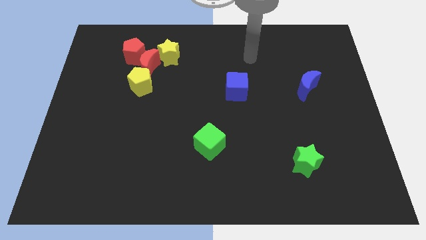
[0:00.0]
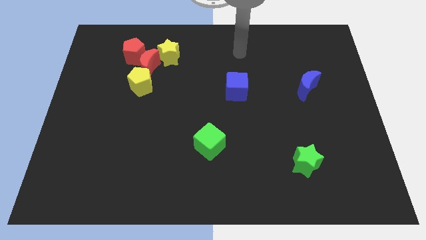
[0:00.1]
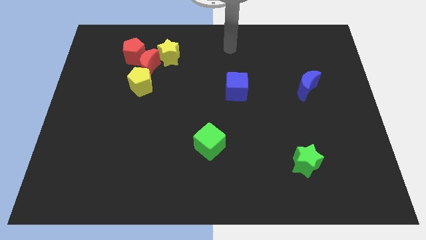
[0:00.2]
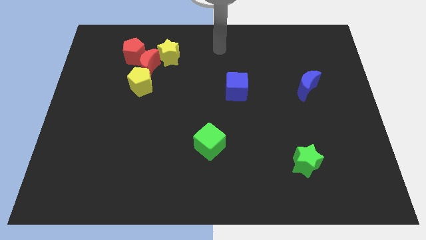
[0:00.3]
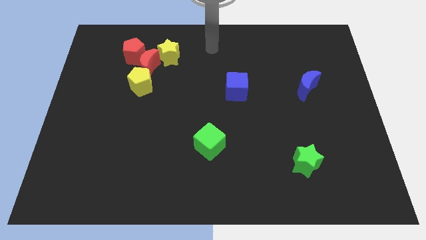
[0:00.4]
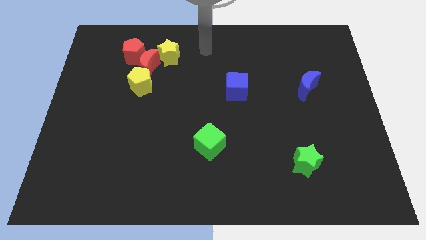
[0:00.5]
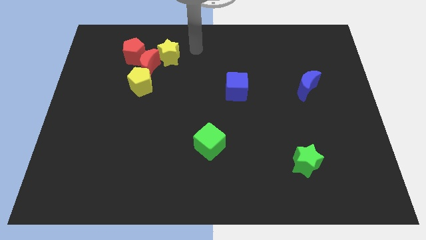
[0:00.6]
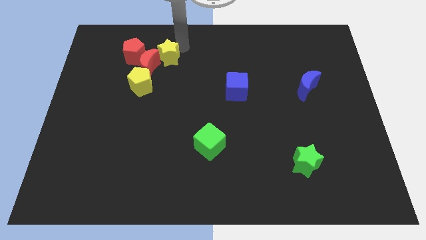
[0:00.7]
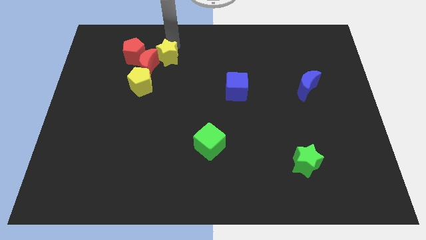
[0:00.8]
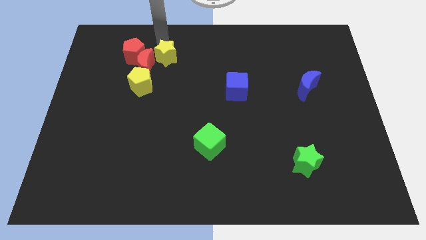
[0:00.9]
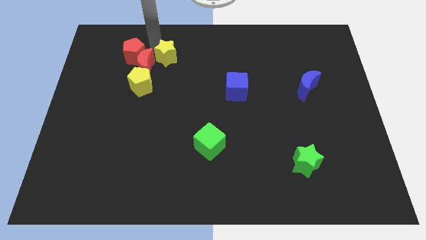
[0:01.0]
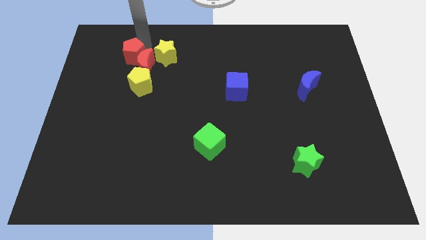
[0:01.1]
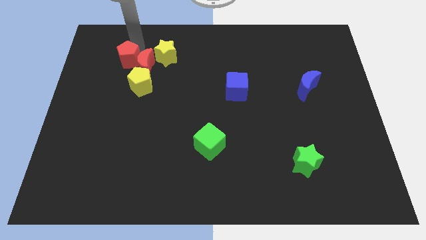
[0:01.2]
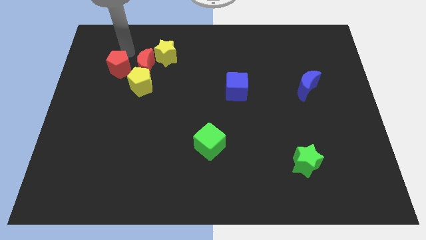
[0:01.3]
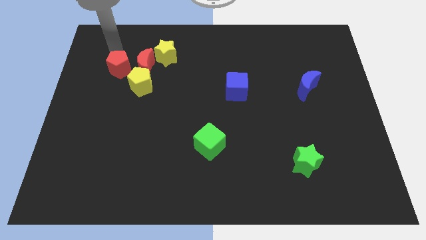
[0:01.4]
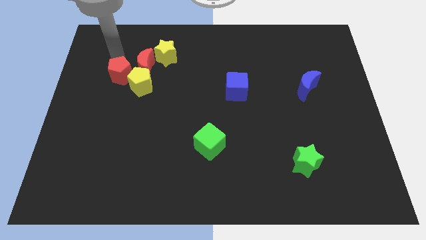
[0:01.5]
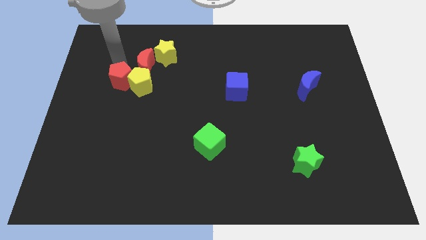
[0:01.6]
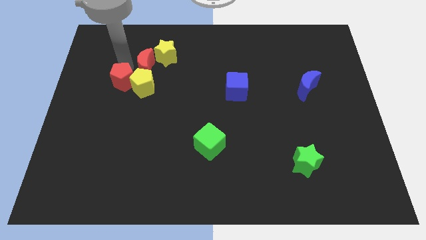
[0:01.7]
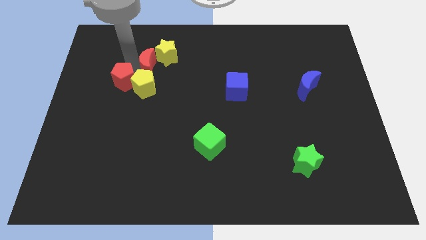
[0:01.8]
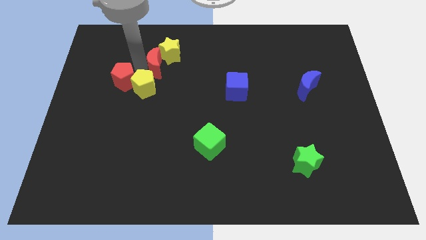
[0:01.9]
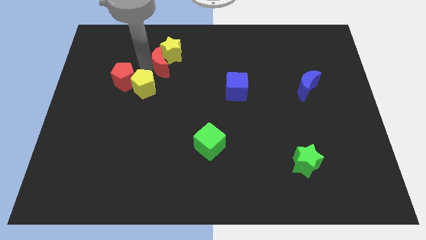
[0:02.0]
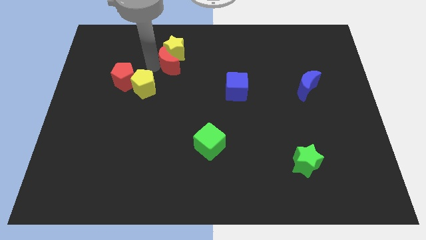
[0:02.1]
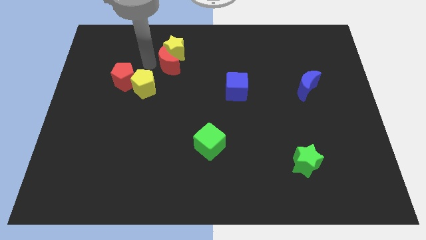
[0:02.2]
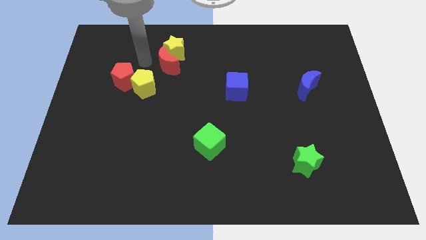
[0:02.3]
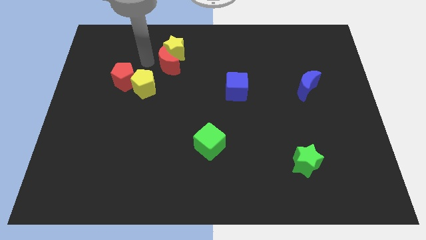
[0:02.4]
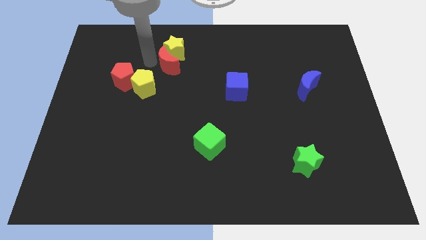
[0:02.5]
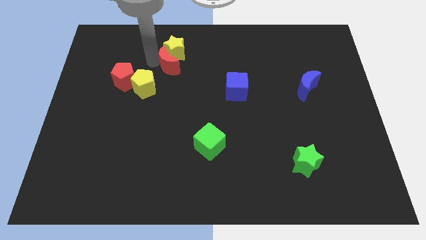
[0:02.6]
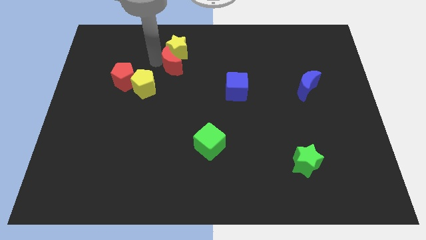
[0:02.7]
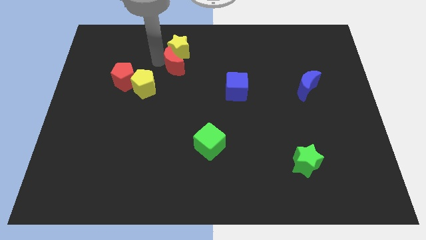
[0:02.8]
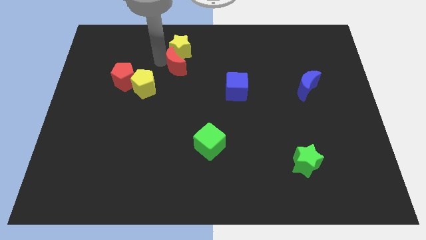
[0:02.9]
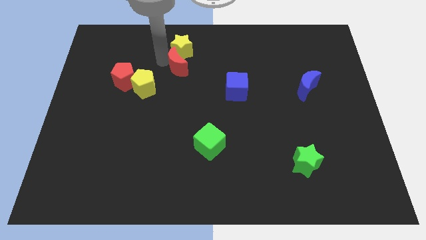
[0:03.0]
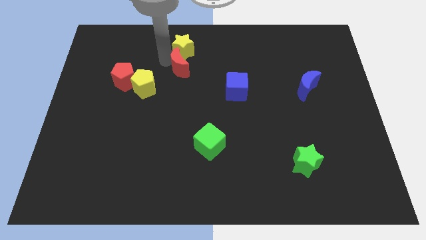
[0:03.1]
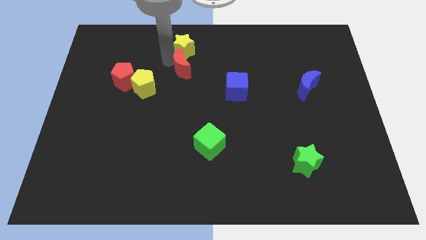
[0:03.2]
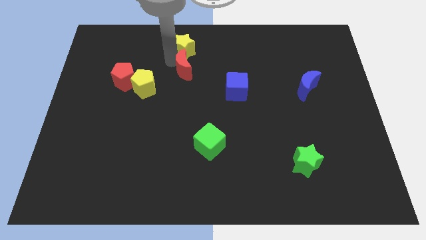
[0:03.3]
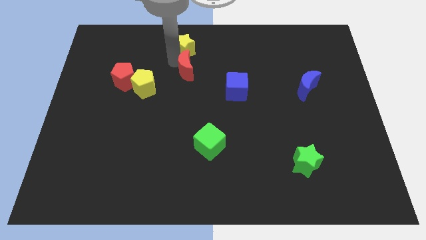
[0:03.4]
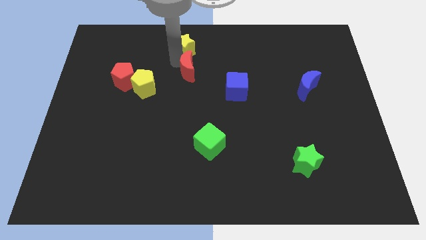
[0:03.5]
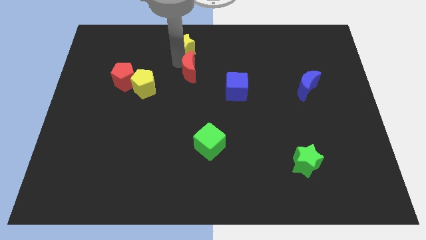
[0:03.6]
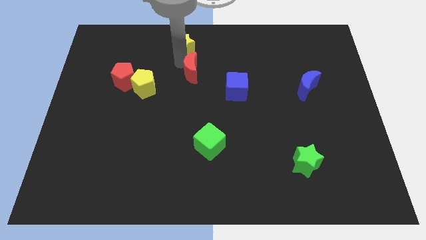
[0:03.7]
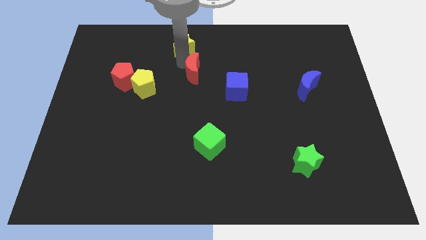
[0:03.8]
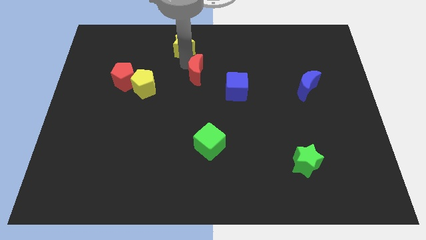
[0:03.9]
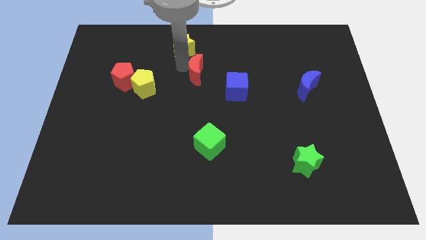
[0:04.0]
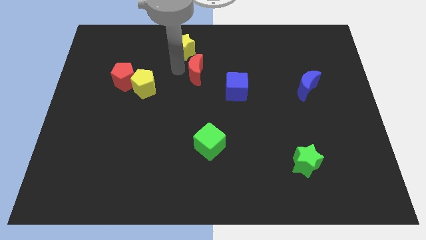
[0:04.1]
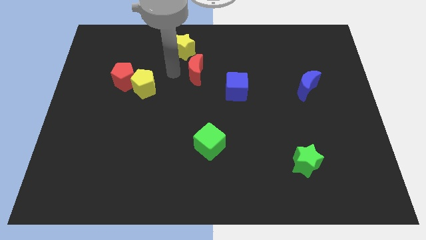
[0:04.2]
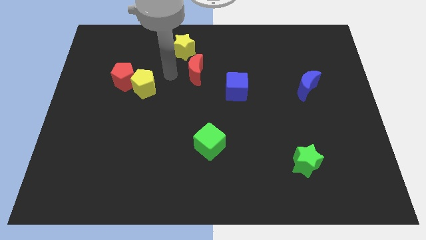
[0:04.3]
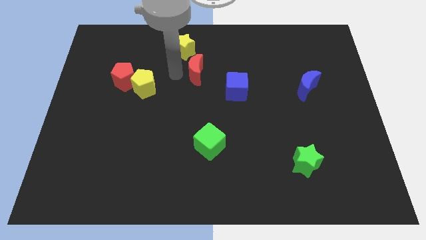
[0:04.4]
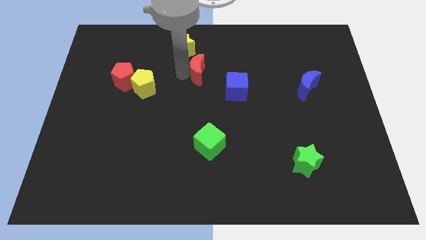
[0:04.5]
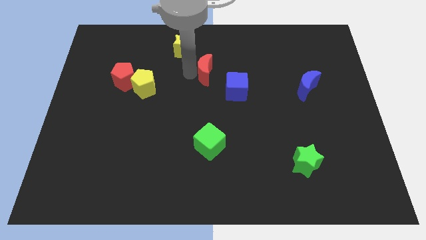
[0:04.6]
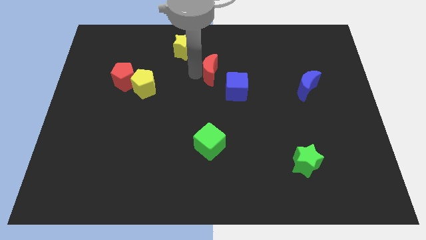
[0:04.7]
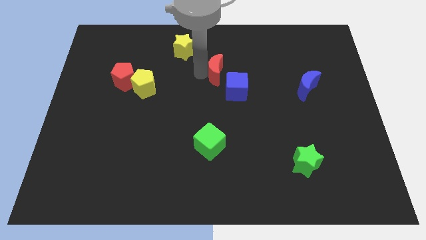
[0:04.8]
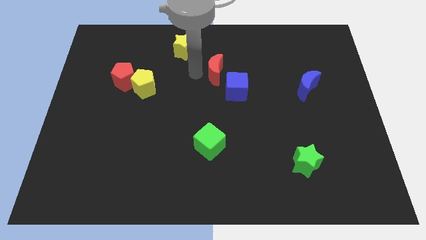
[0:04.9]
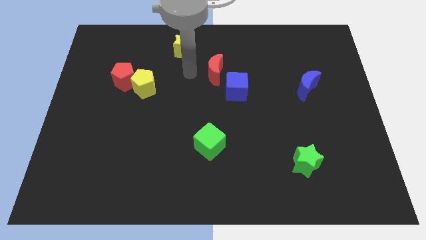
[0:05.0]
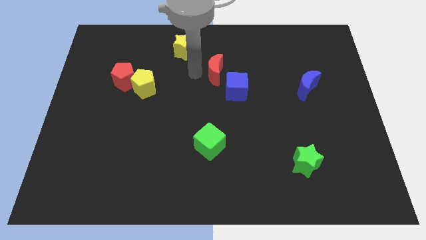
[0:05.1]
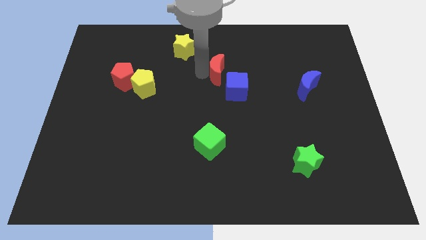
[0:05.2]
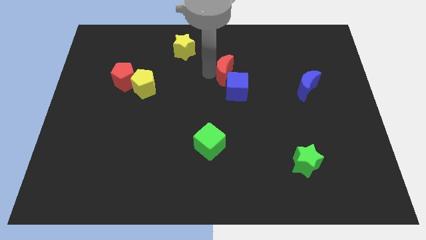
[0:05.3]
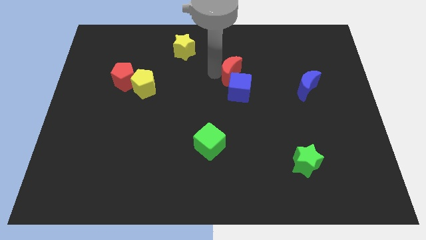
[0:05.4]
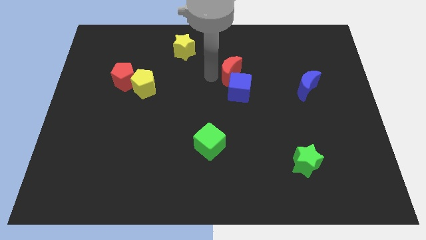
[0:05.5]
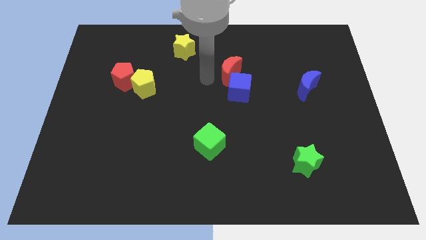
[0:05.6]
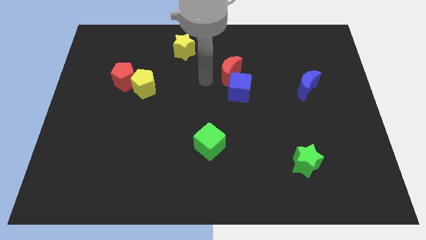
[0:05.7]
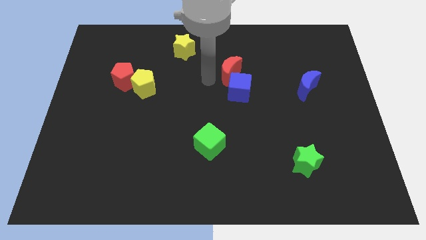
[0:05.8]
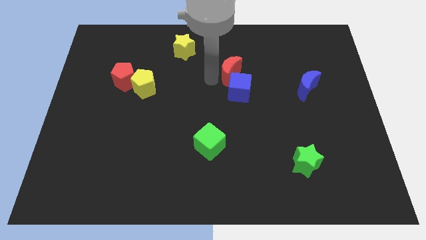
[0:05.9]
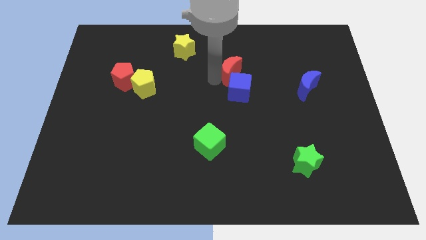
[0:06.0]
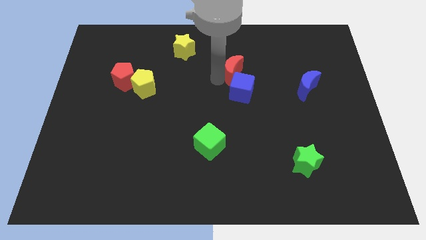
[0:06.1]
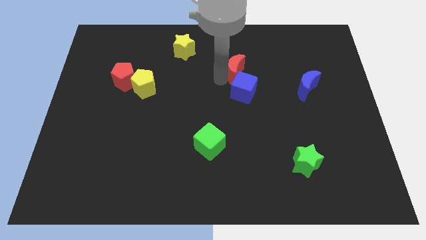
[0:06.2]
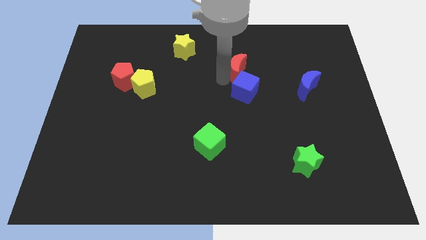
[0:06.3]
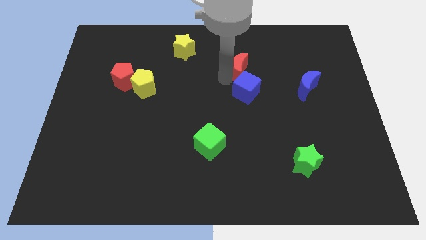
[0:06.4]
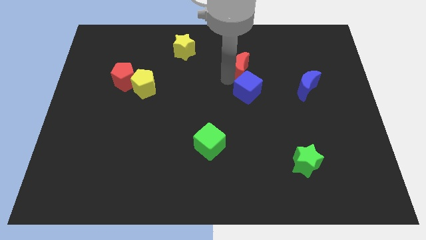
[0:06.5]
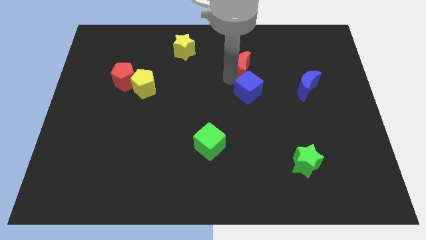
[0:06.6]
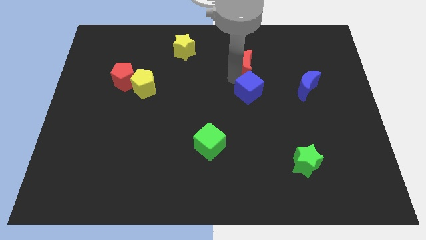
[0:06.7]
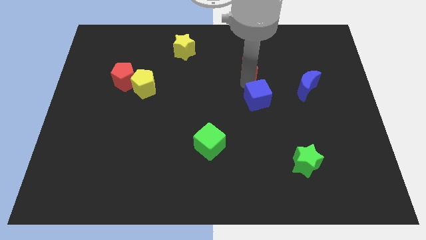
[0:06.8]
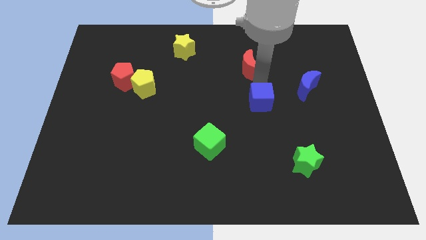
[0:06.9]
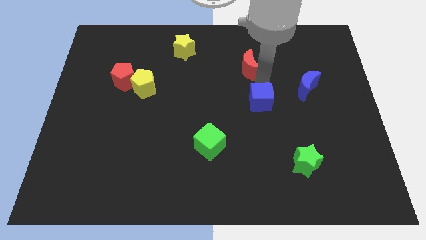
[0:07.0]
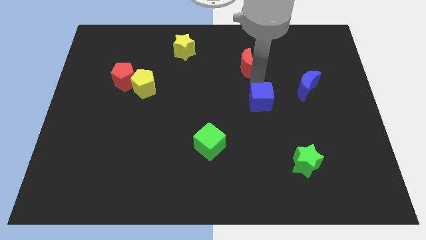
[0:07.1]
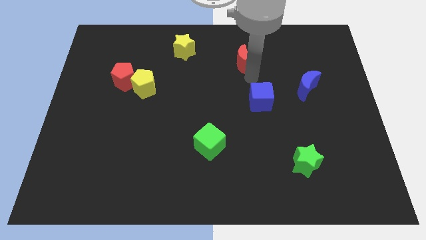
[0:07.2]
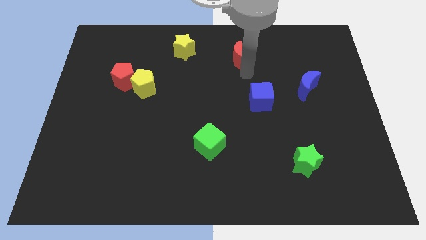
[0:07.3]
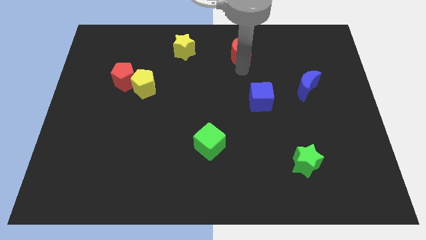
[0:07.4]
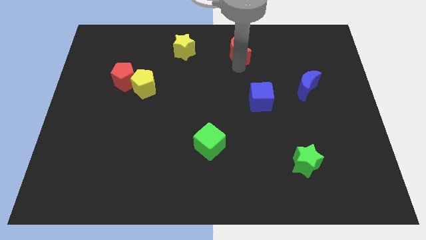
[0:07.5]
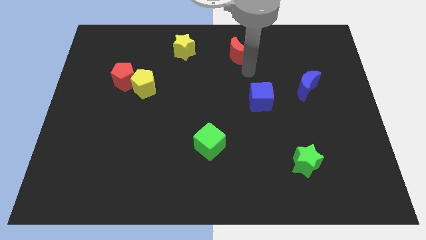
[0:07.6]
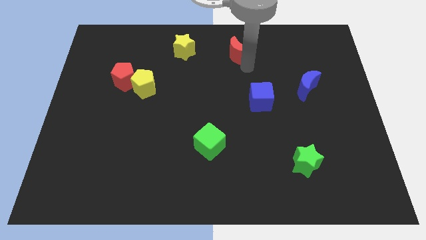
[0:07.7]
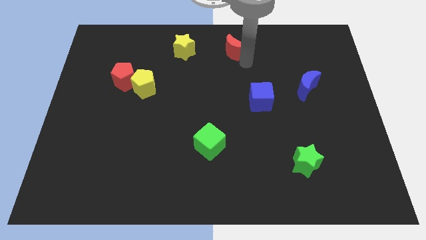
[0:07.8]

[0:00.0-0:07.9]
slide the red moon to the top
